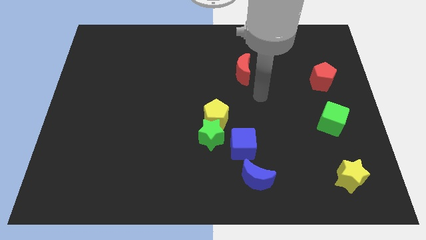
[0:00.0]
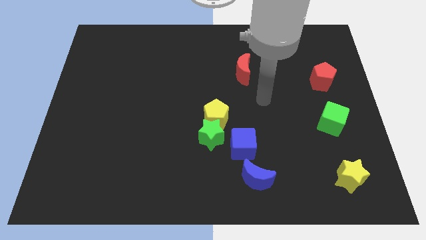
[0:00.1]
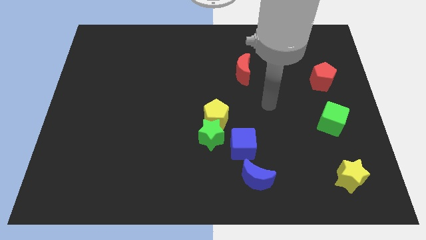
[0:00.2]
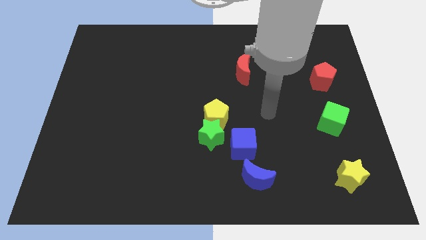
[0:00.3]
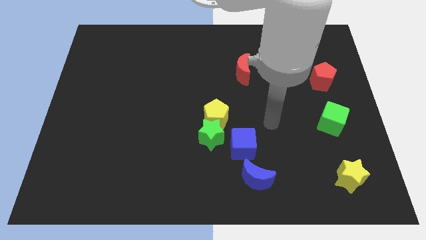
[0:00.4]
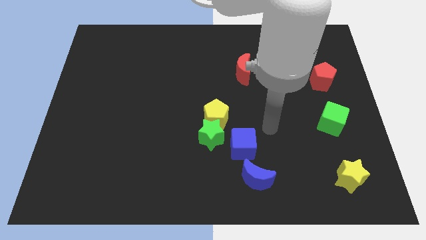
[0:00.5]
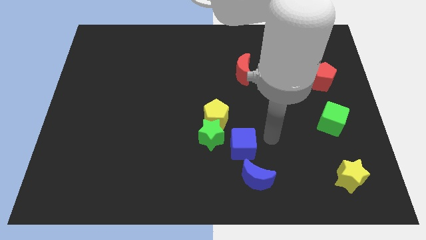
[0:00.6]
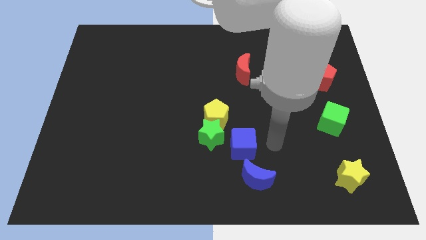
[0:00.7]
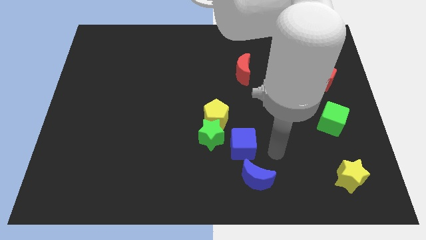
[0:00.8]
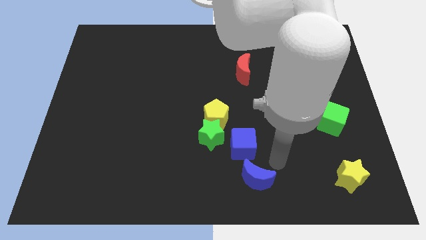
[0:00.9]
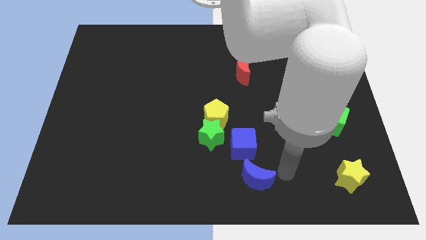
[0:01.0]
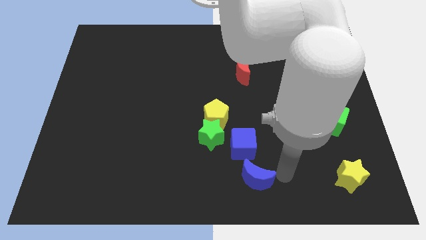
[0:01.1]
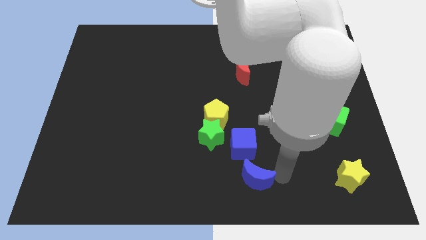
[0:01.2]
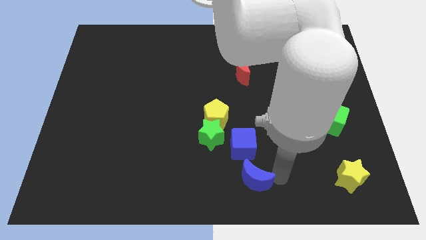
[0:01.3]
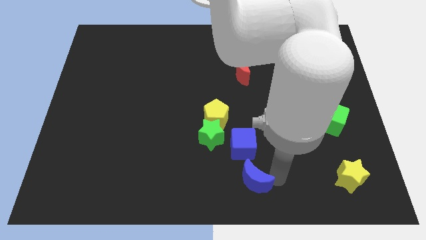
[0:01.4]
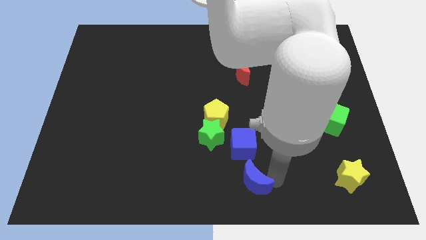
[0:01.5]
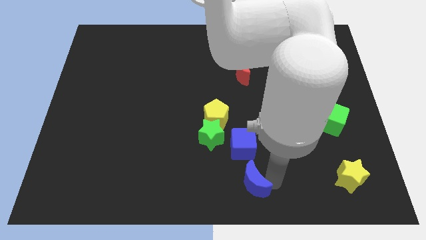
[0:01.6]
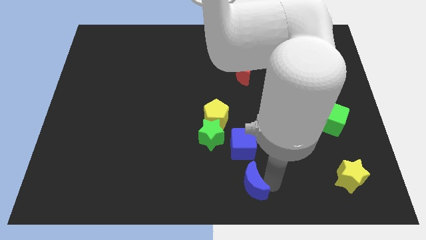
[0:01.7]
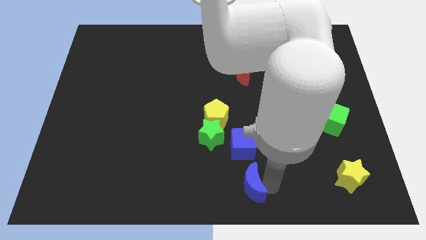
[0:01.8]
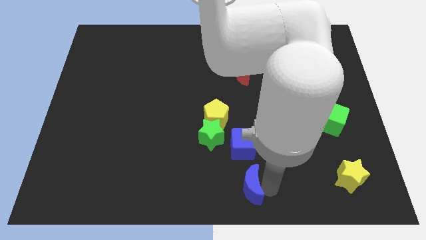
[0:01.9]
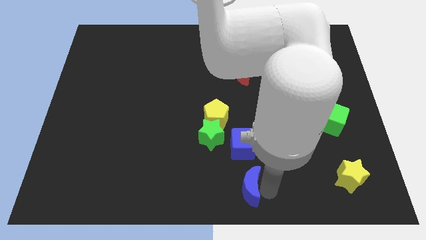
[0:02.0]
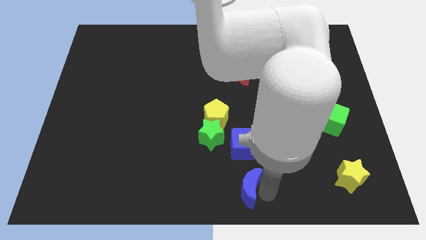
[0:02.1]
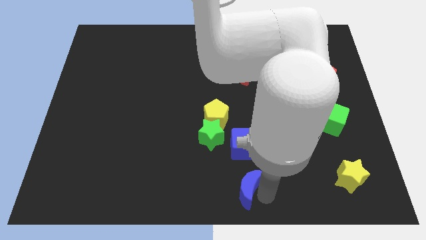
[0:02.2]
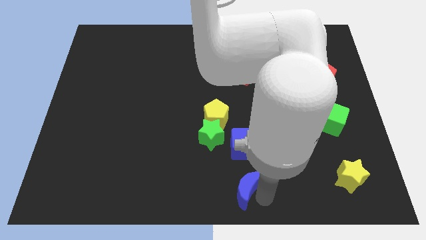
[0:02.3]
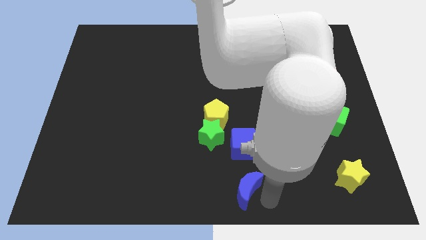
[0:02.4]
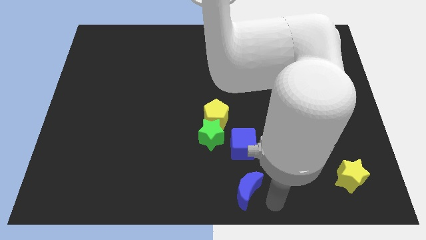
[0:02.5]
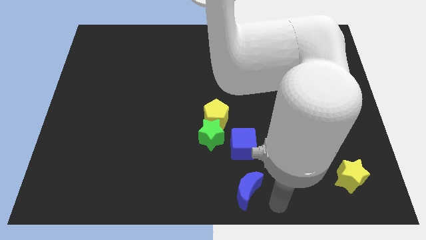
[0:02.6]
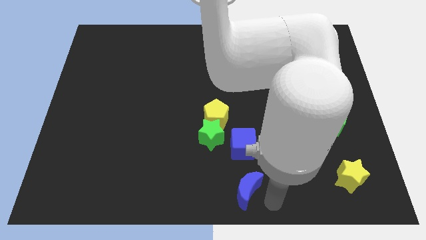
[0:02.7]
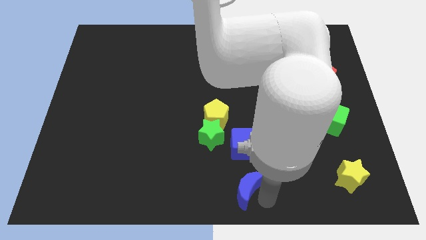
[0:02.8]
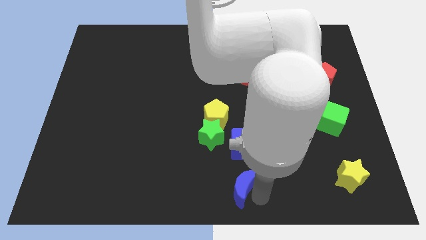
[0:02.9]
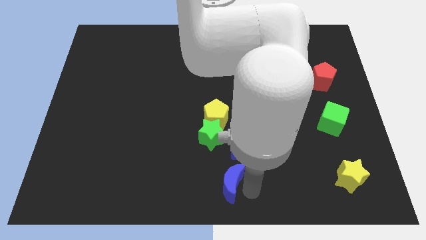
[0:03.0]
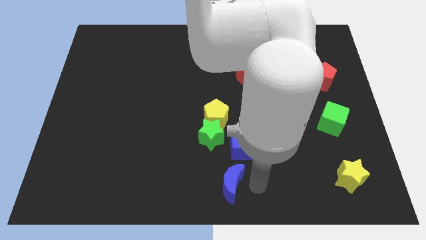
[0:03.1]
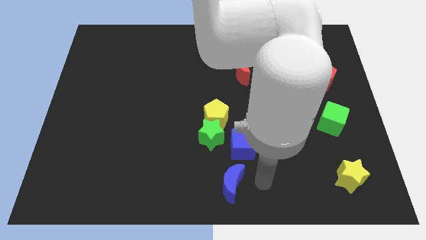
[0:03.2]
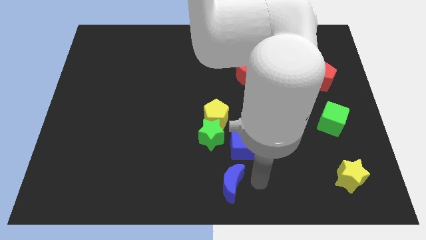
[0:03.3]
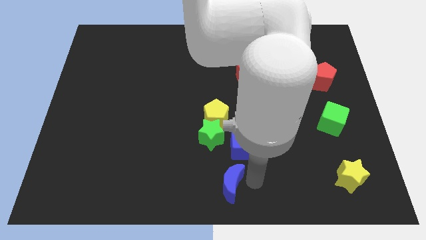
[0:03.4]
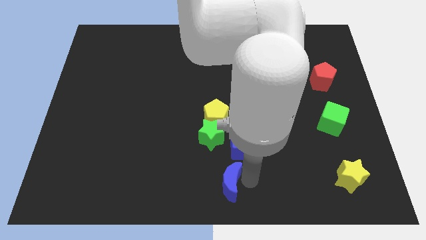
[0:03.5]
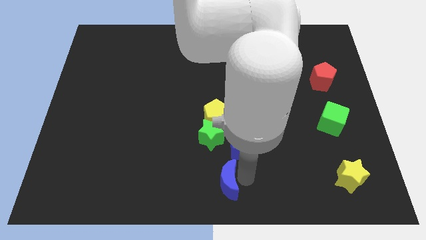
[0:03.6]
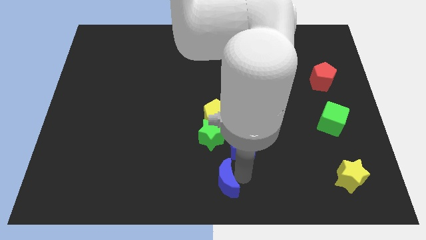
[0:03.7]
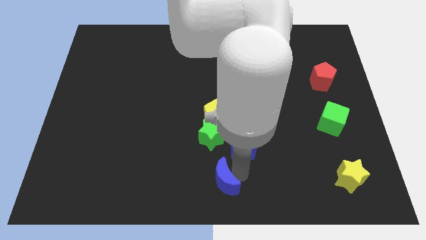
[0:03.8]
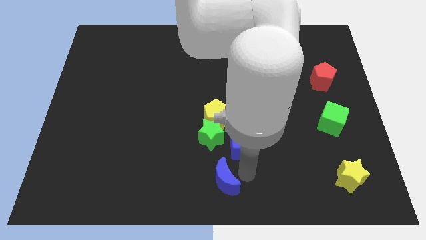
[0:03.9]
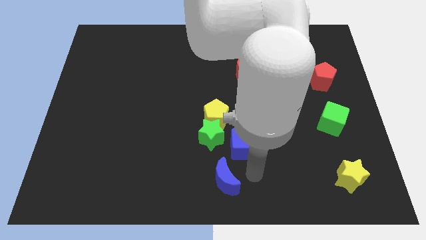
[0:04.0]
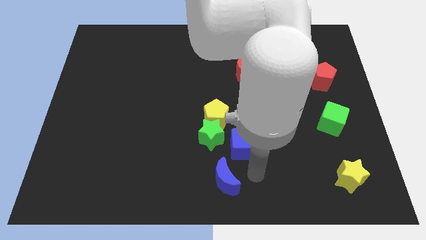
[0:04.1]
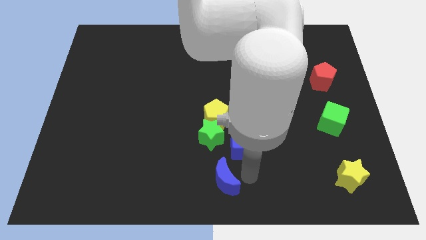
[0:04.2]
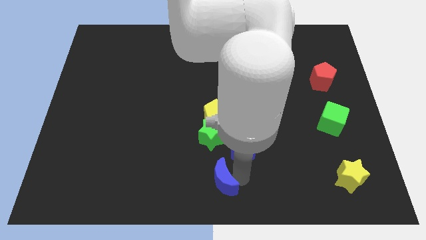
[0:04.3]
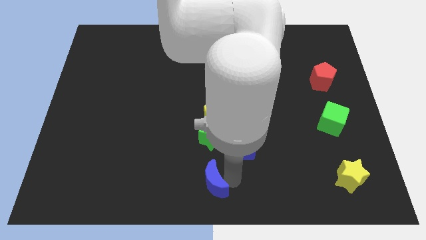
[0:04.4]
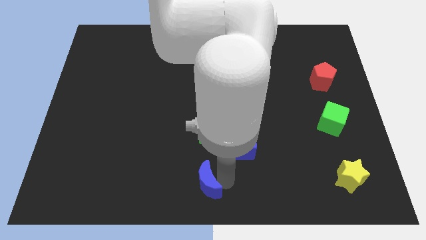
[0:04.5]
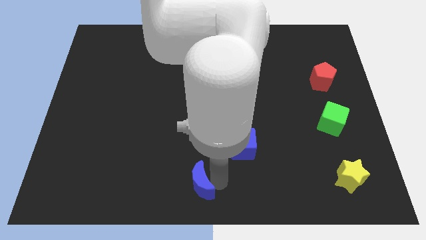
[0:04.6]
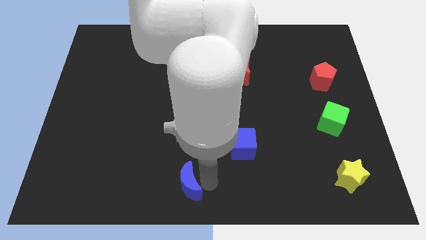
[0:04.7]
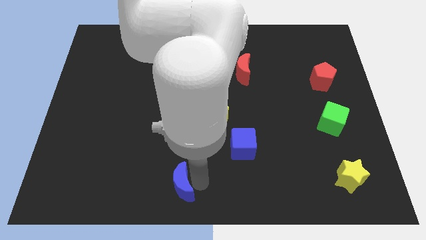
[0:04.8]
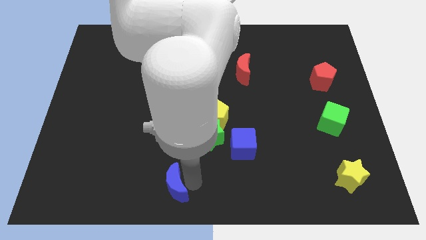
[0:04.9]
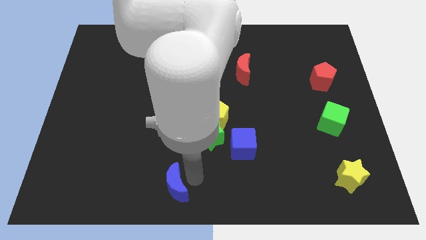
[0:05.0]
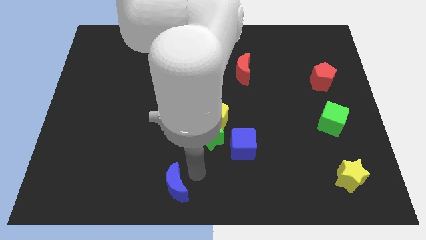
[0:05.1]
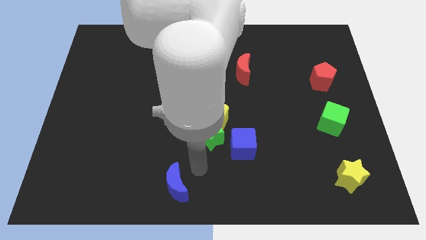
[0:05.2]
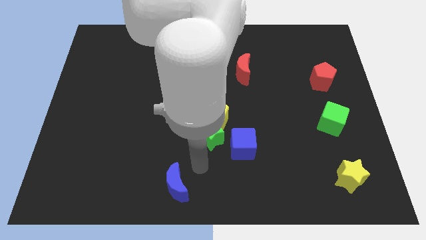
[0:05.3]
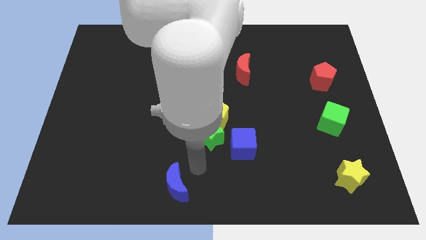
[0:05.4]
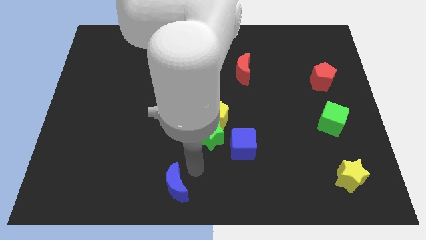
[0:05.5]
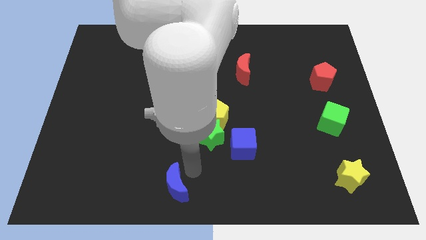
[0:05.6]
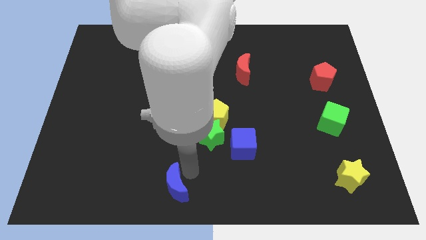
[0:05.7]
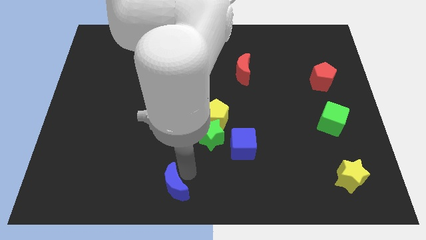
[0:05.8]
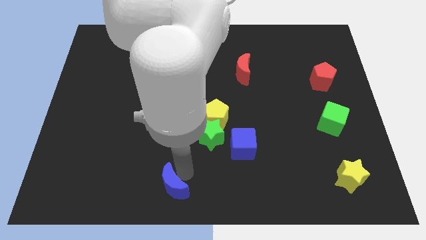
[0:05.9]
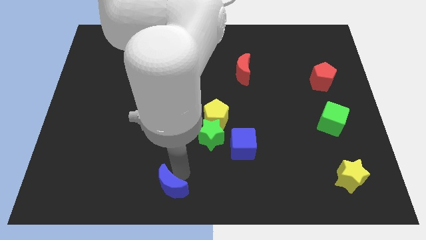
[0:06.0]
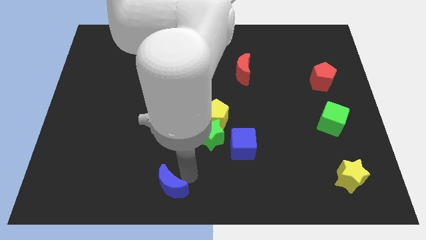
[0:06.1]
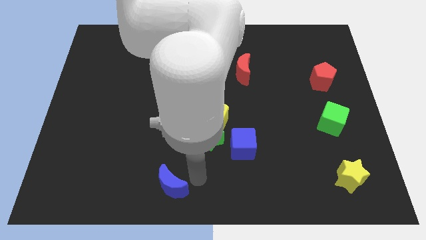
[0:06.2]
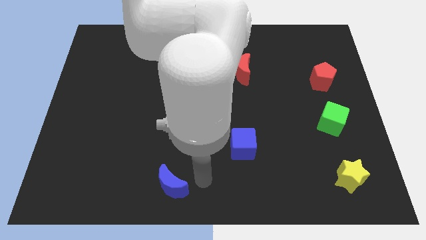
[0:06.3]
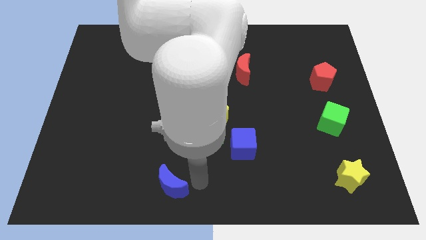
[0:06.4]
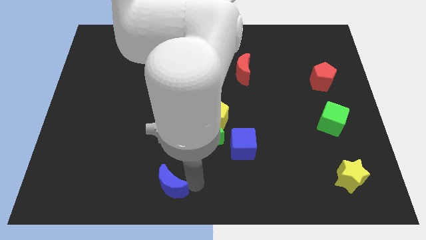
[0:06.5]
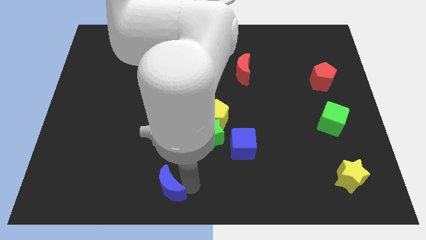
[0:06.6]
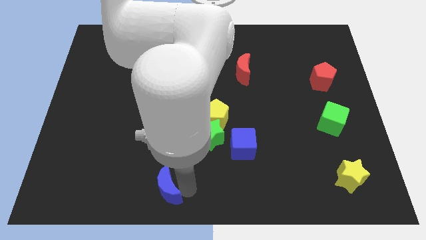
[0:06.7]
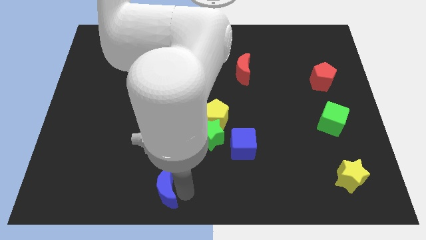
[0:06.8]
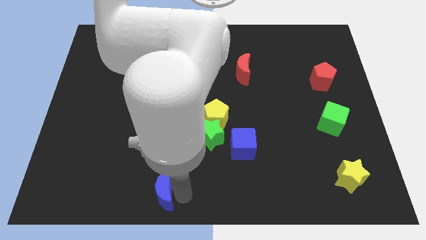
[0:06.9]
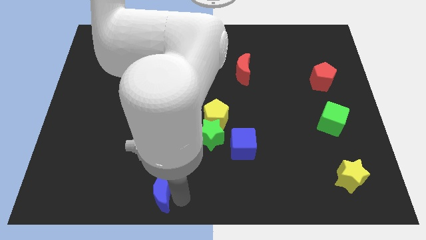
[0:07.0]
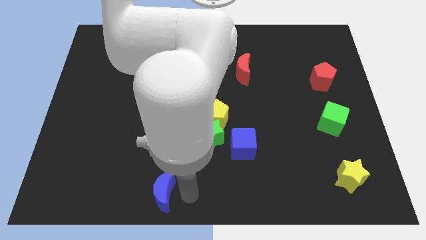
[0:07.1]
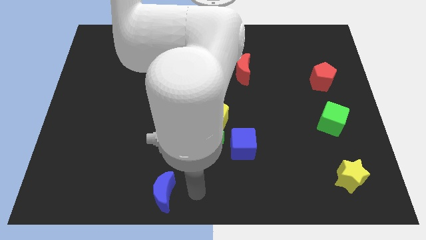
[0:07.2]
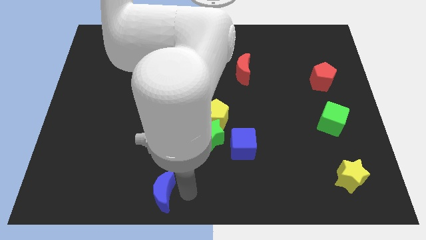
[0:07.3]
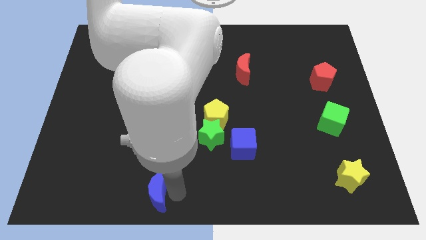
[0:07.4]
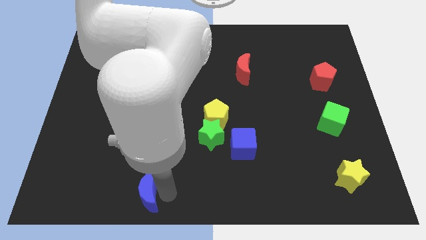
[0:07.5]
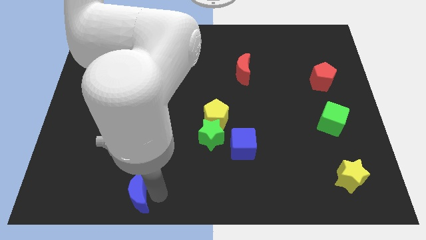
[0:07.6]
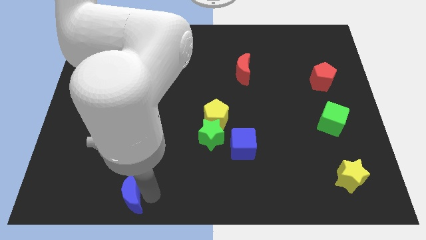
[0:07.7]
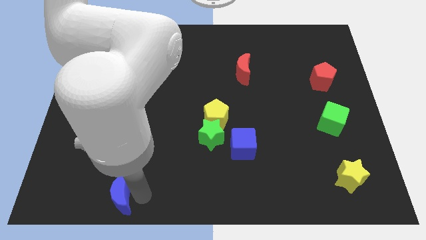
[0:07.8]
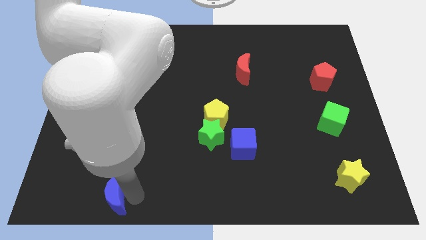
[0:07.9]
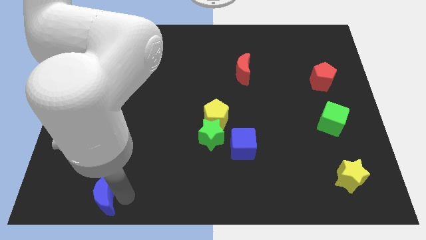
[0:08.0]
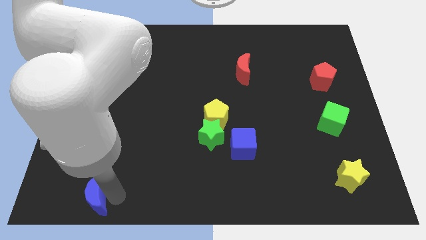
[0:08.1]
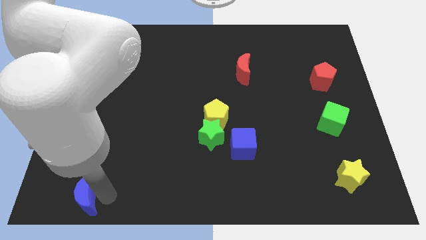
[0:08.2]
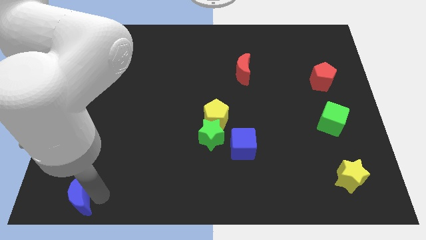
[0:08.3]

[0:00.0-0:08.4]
move the blue moon to the lower left corner
